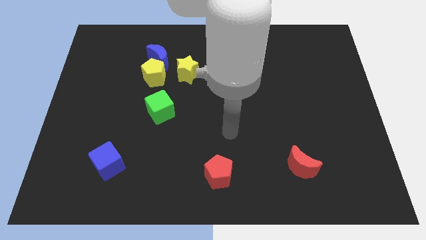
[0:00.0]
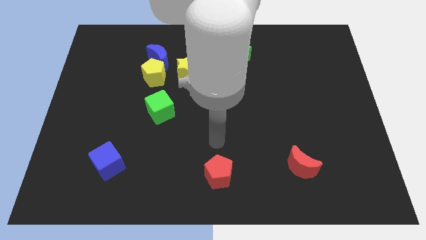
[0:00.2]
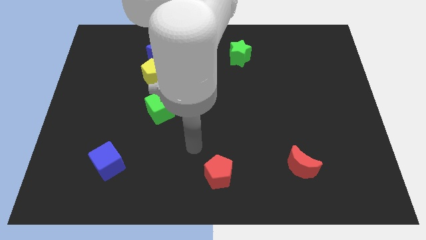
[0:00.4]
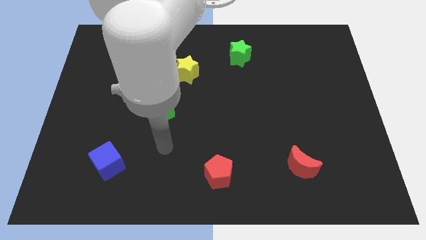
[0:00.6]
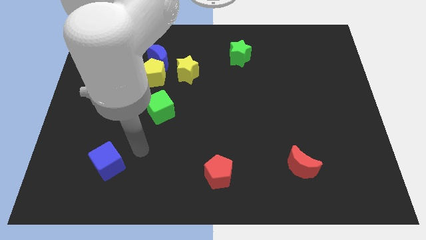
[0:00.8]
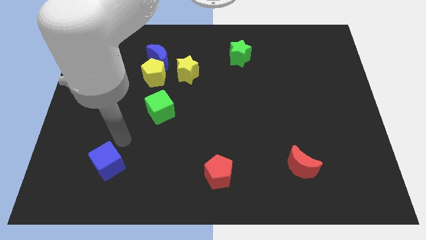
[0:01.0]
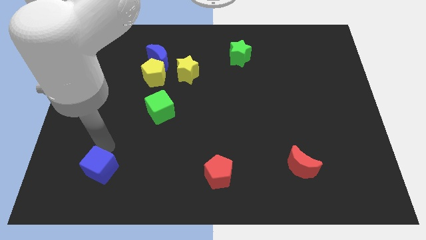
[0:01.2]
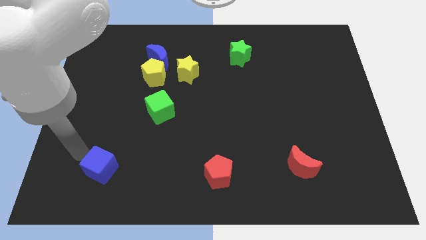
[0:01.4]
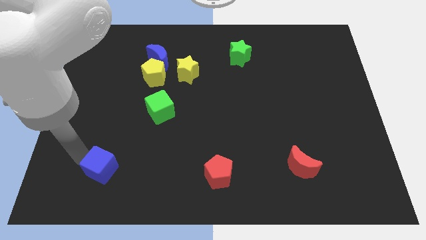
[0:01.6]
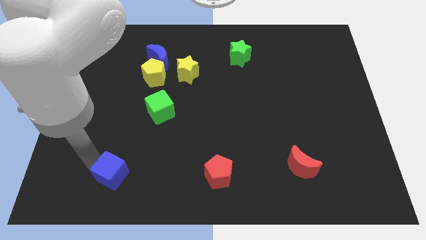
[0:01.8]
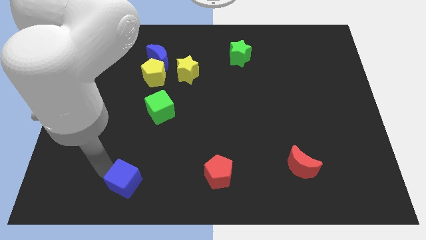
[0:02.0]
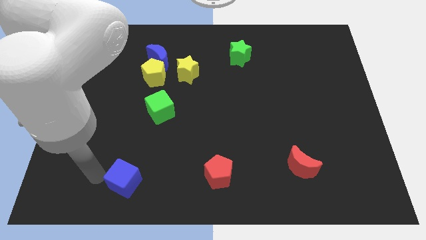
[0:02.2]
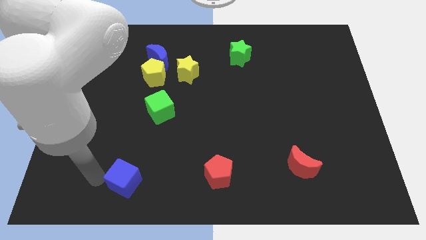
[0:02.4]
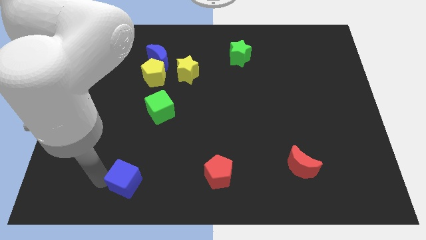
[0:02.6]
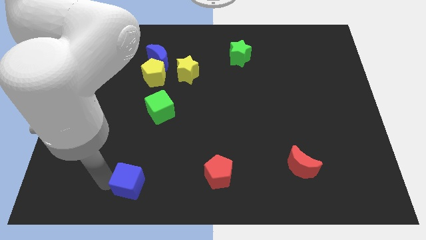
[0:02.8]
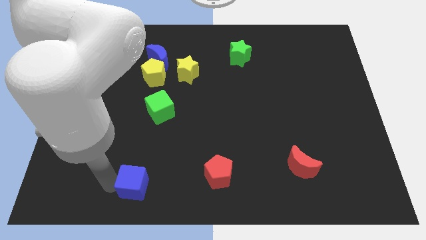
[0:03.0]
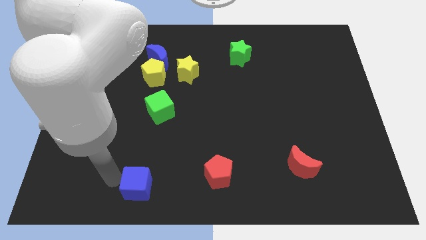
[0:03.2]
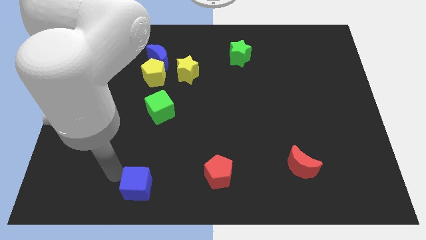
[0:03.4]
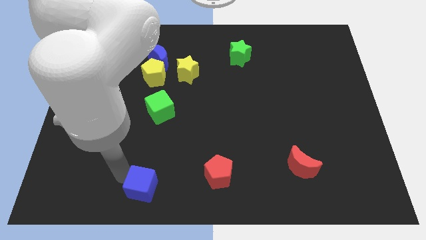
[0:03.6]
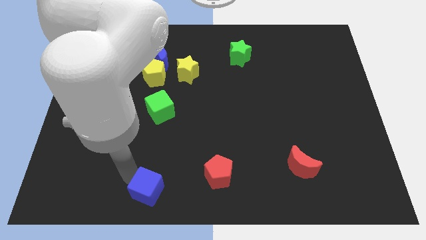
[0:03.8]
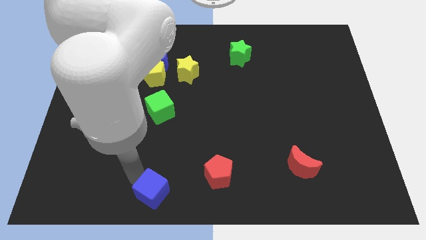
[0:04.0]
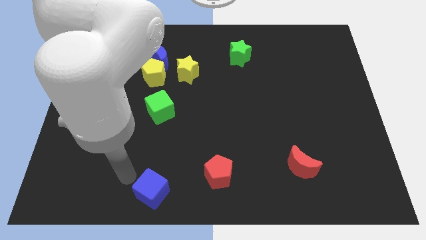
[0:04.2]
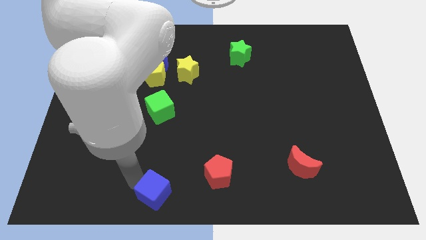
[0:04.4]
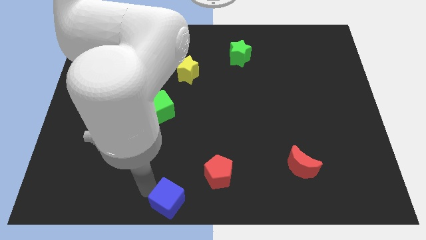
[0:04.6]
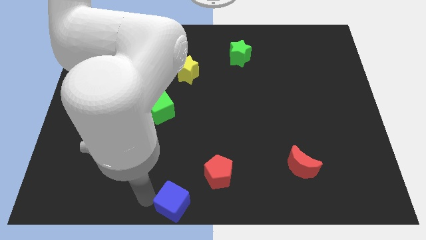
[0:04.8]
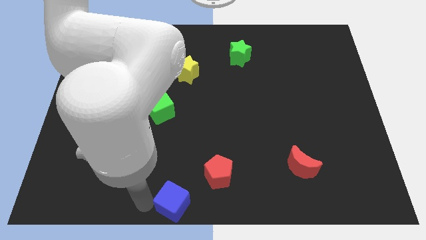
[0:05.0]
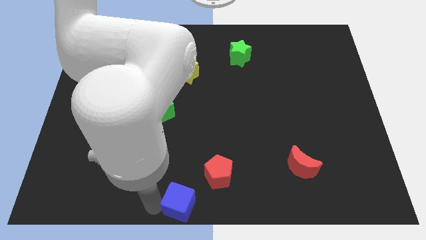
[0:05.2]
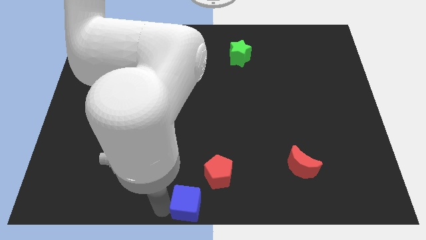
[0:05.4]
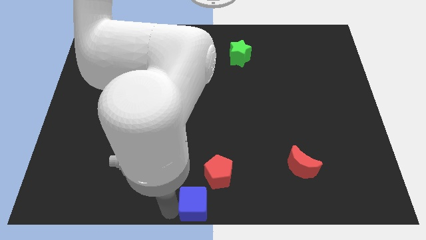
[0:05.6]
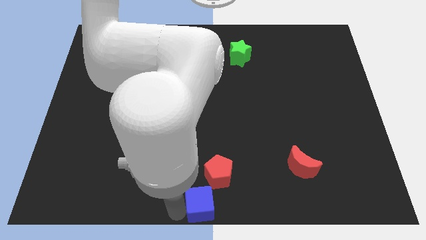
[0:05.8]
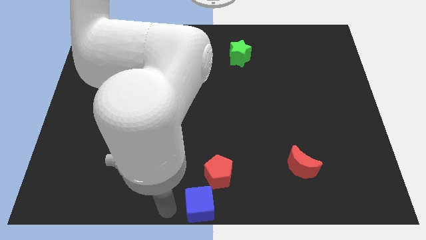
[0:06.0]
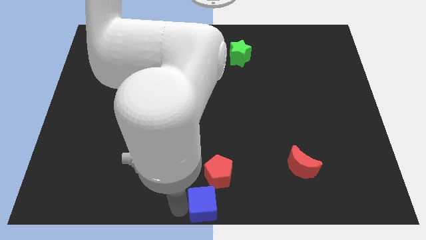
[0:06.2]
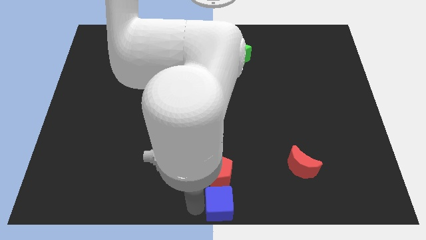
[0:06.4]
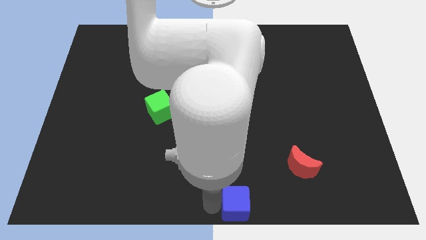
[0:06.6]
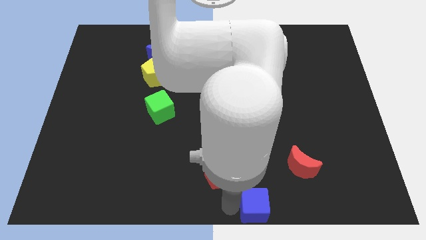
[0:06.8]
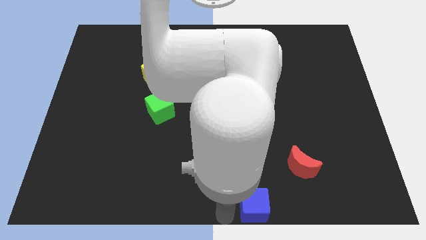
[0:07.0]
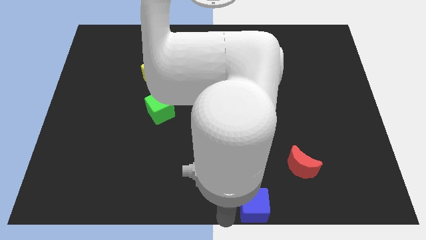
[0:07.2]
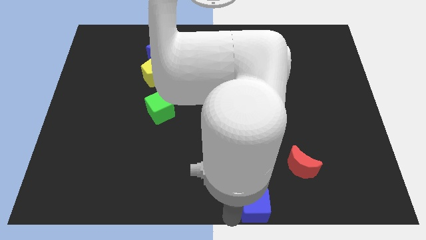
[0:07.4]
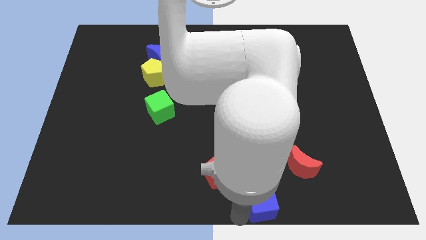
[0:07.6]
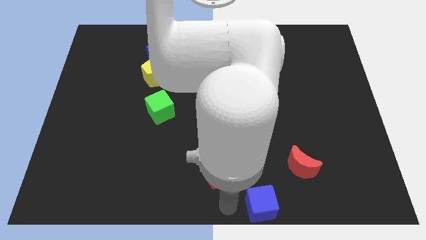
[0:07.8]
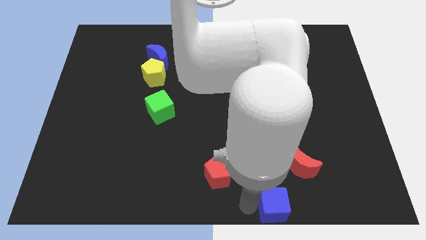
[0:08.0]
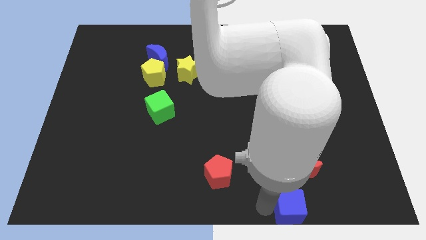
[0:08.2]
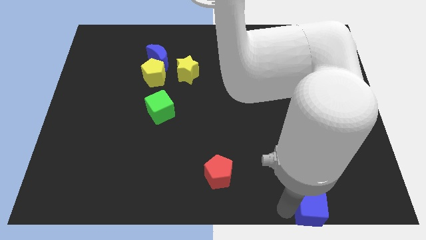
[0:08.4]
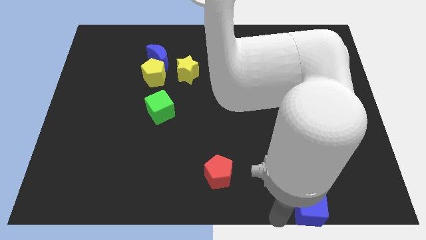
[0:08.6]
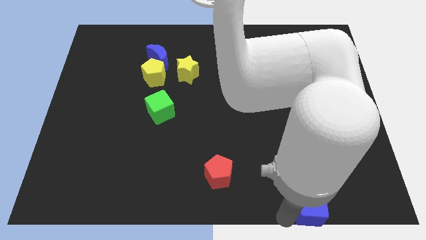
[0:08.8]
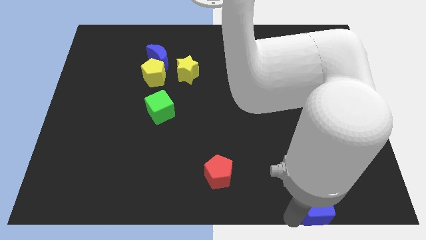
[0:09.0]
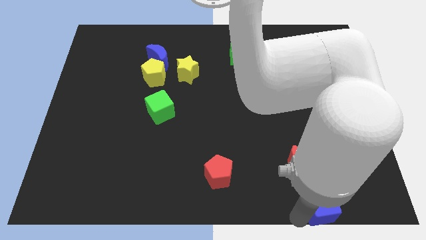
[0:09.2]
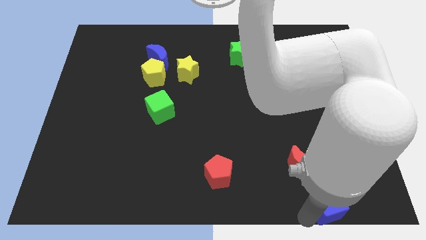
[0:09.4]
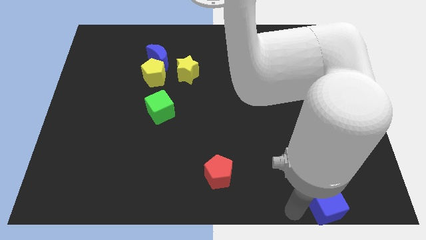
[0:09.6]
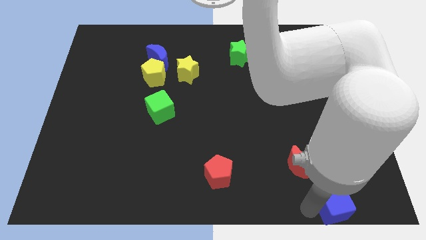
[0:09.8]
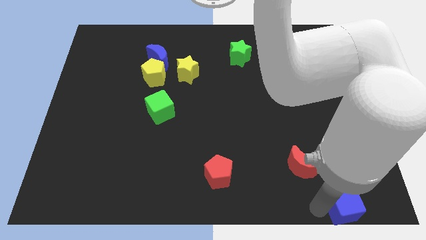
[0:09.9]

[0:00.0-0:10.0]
put the blue cube to the bottom right of the board

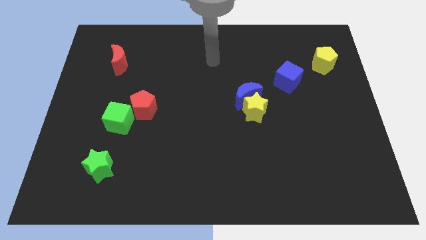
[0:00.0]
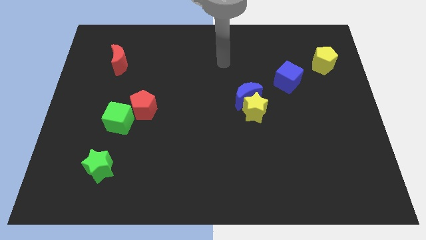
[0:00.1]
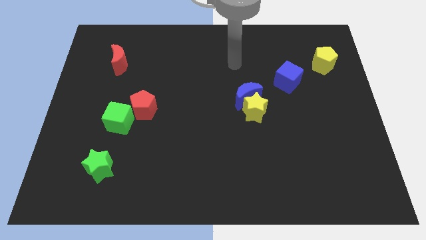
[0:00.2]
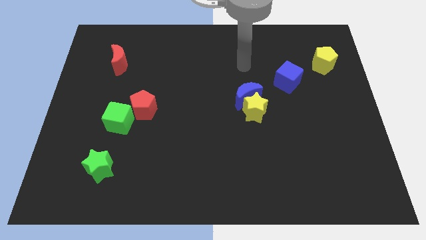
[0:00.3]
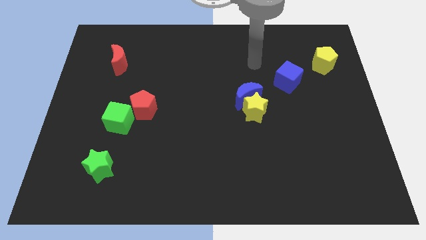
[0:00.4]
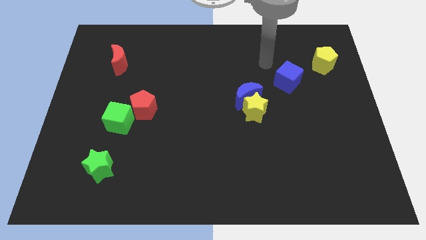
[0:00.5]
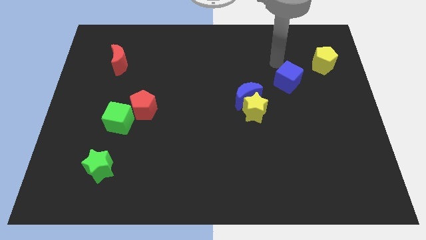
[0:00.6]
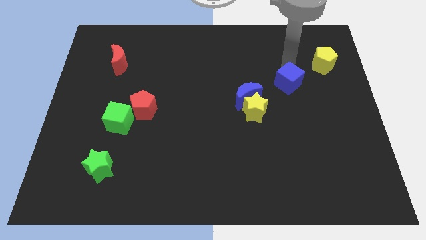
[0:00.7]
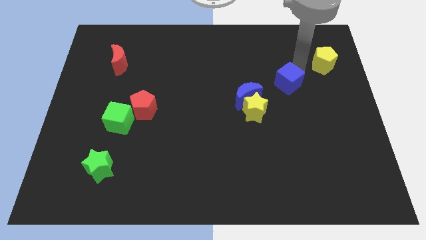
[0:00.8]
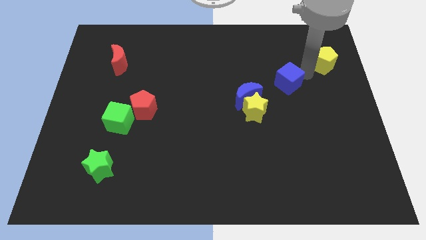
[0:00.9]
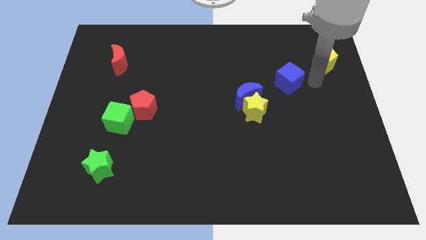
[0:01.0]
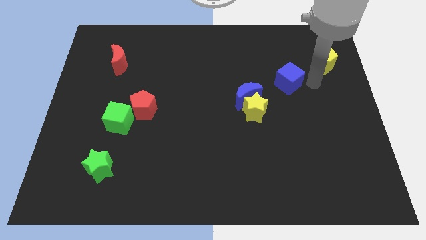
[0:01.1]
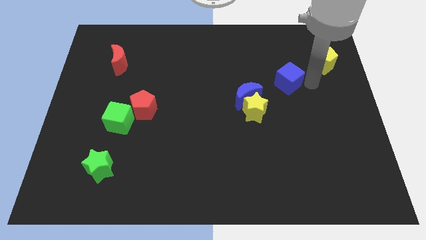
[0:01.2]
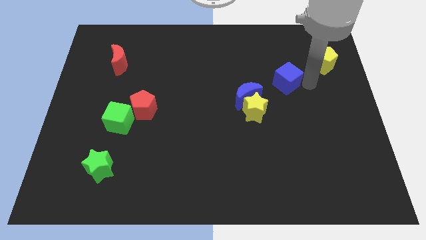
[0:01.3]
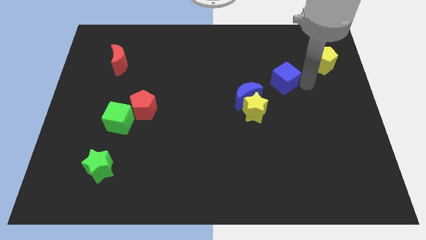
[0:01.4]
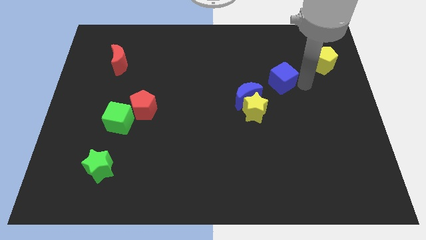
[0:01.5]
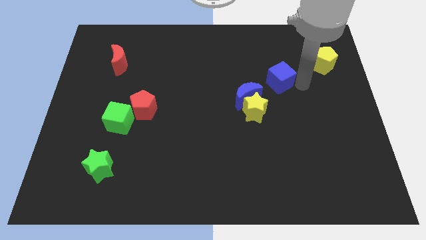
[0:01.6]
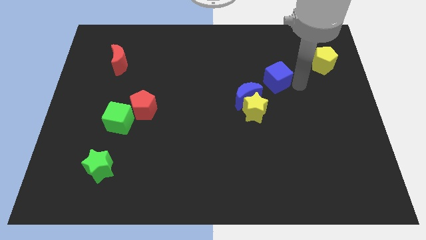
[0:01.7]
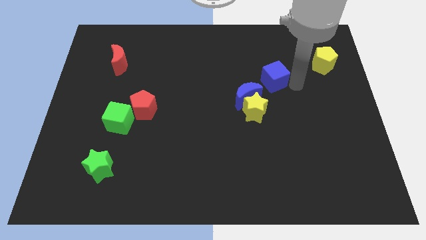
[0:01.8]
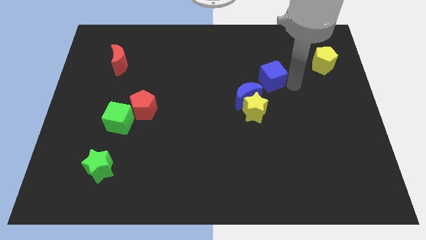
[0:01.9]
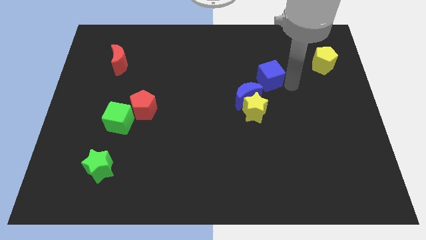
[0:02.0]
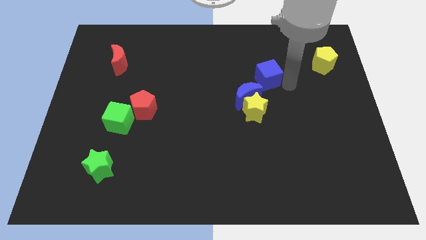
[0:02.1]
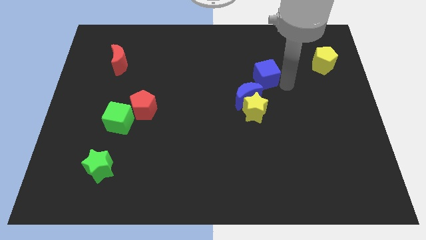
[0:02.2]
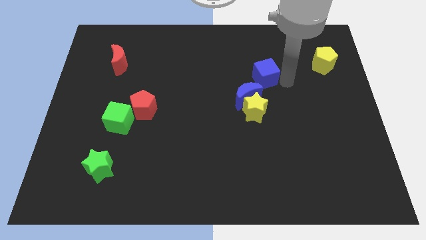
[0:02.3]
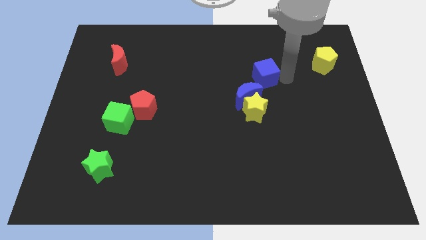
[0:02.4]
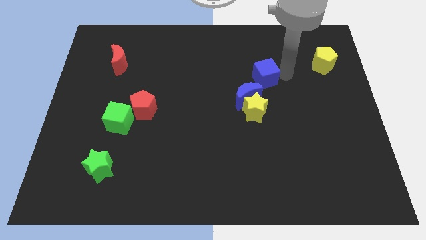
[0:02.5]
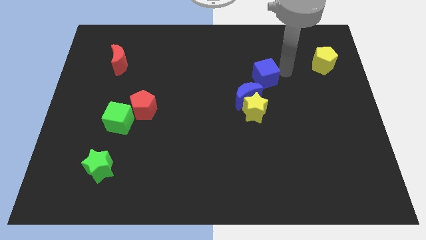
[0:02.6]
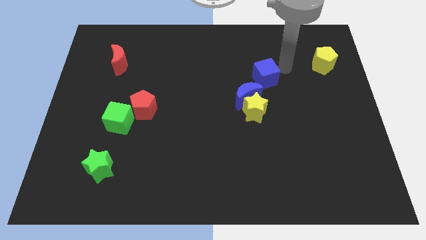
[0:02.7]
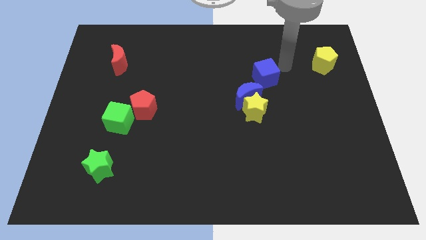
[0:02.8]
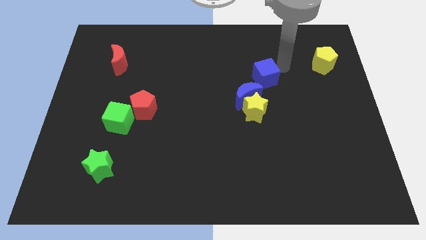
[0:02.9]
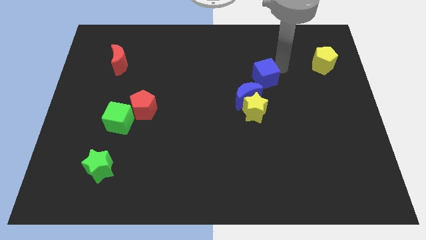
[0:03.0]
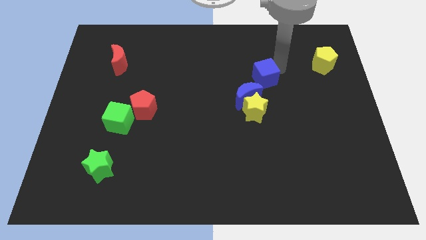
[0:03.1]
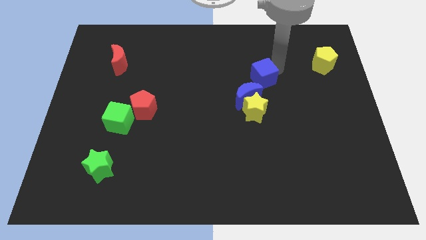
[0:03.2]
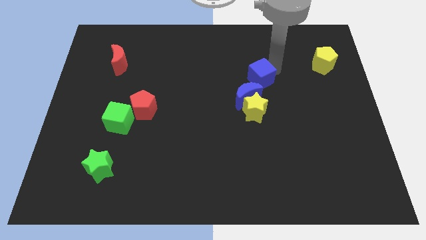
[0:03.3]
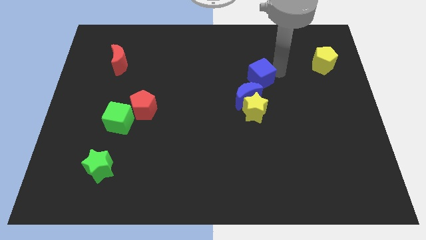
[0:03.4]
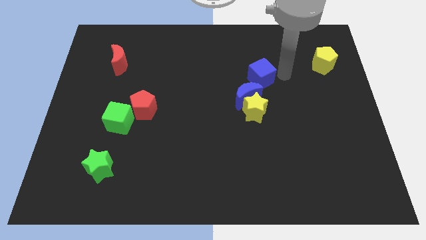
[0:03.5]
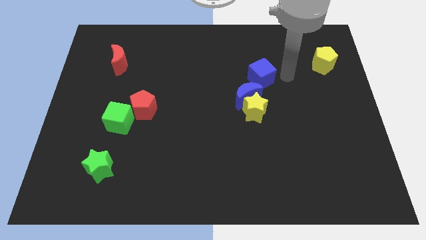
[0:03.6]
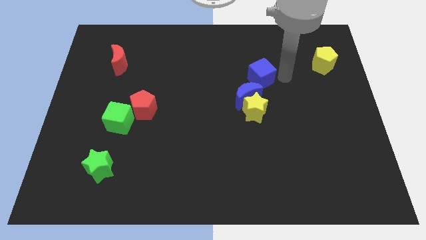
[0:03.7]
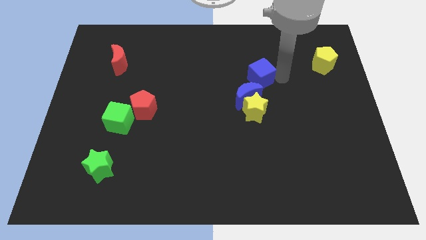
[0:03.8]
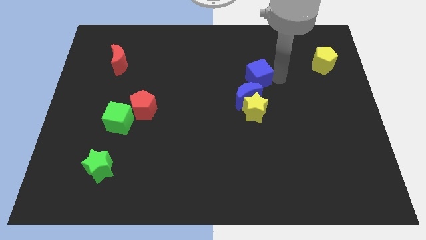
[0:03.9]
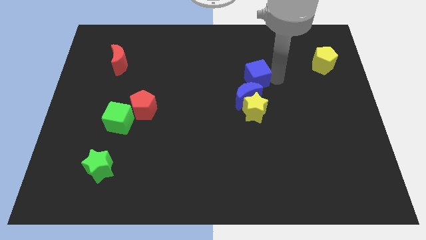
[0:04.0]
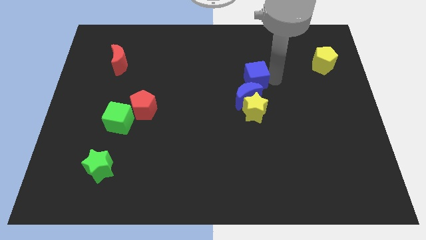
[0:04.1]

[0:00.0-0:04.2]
move the blue cube to the middle
